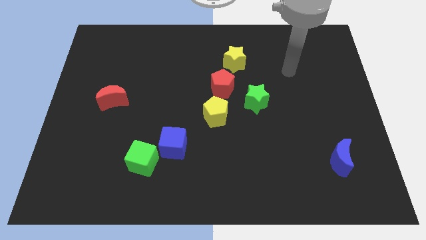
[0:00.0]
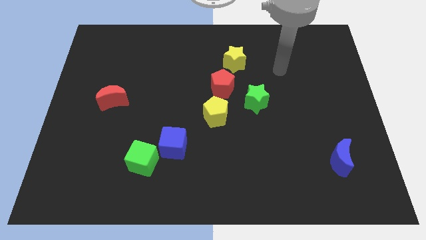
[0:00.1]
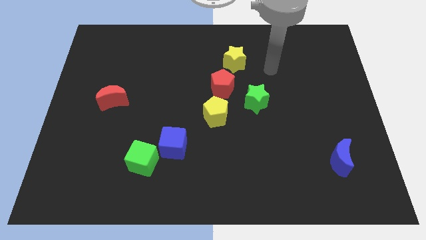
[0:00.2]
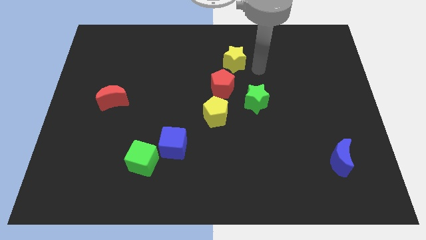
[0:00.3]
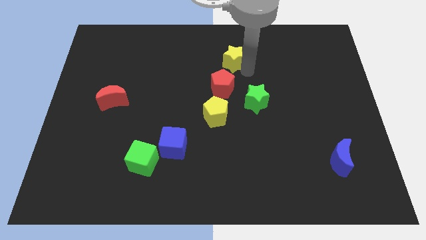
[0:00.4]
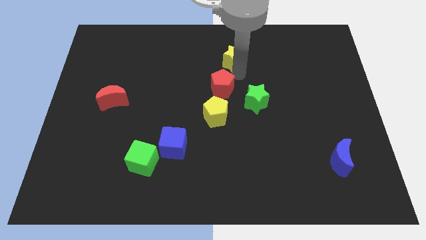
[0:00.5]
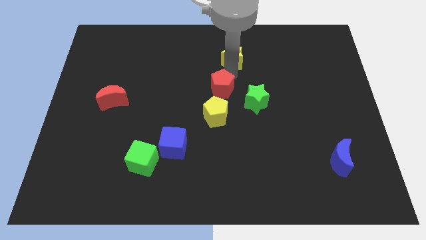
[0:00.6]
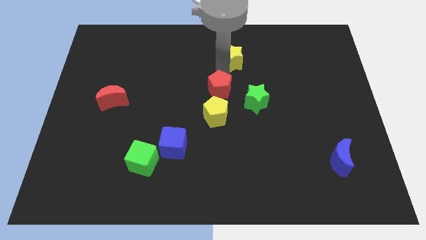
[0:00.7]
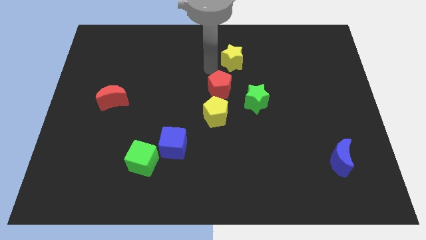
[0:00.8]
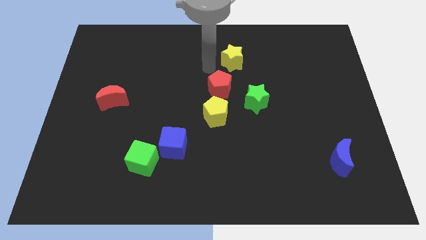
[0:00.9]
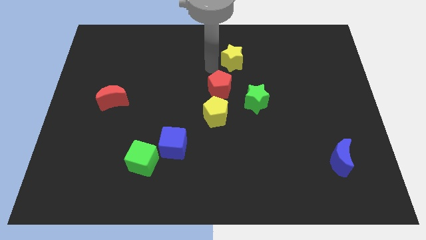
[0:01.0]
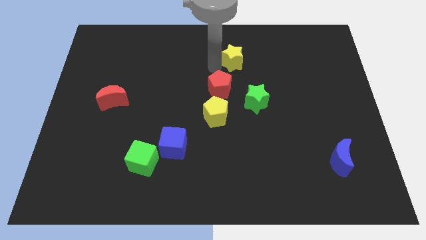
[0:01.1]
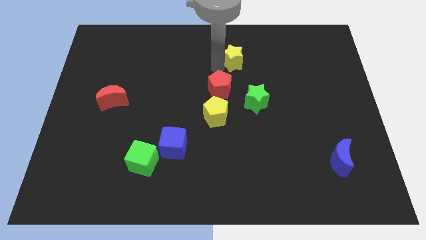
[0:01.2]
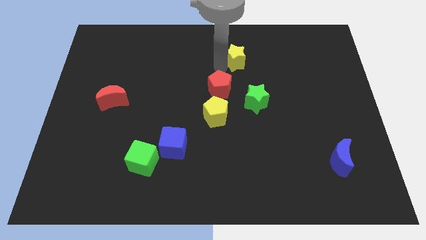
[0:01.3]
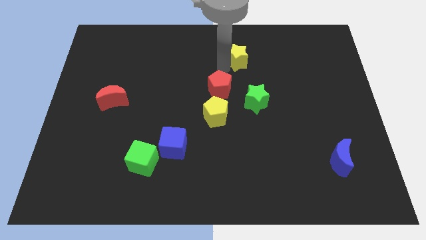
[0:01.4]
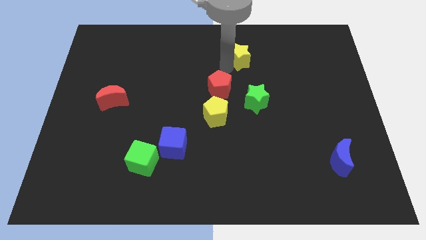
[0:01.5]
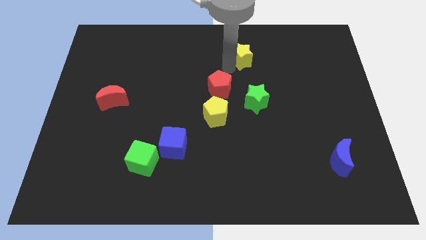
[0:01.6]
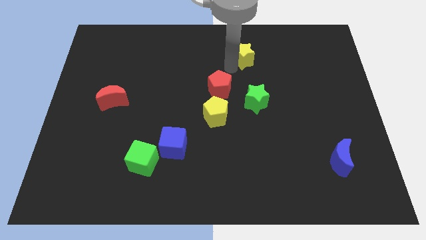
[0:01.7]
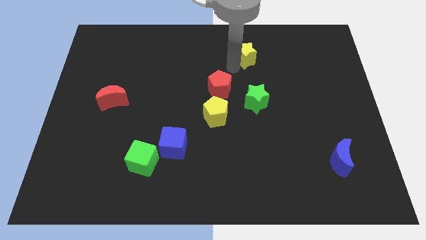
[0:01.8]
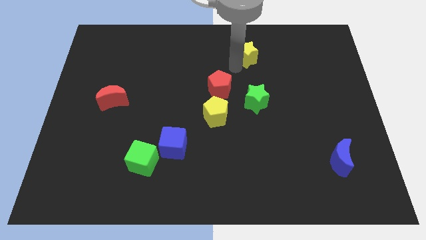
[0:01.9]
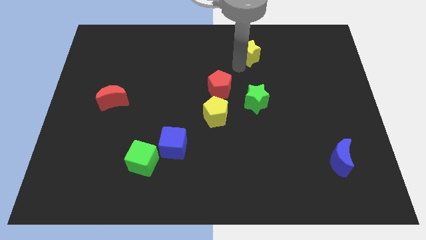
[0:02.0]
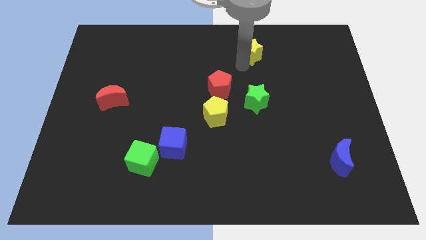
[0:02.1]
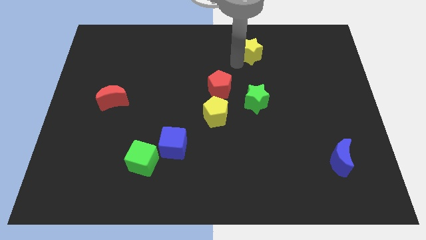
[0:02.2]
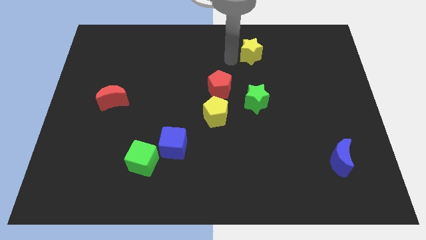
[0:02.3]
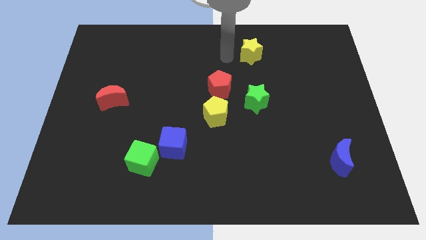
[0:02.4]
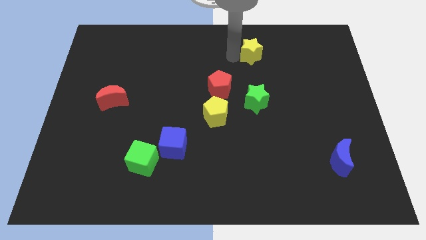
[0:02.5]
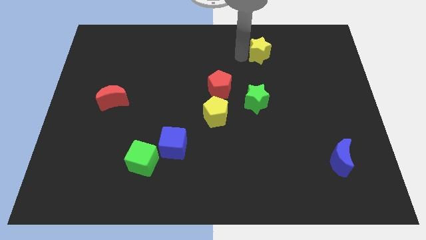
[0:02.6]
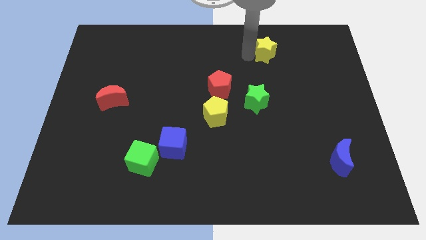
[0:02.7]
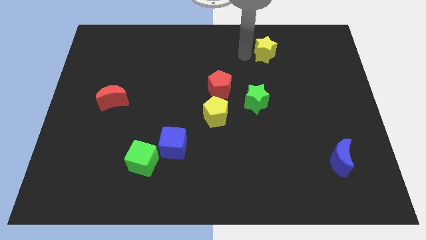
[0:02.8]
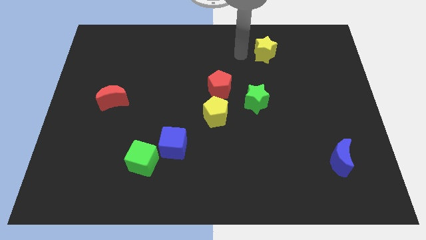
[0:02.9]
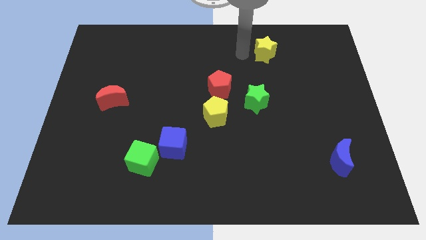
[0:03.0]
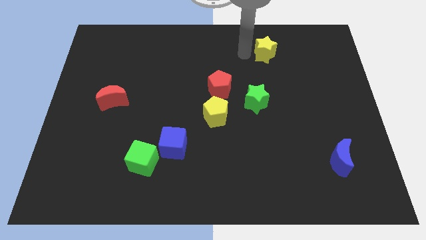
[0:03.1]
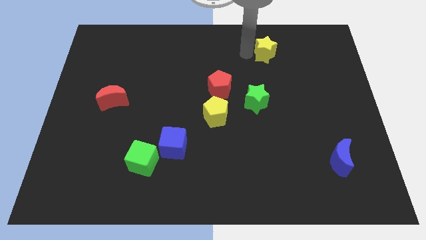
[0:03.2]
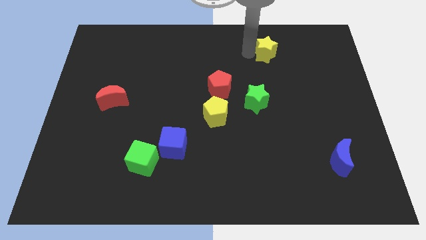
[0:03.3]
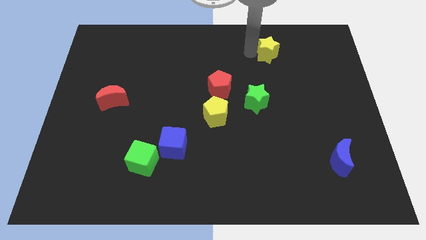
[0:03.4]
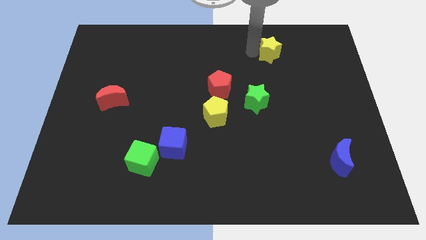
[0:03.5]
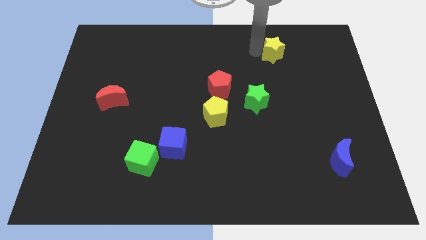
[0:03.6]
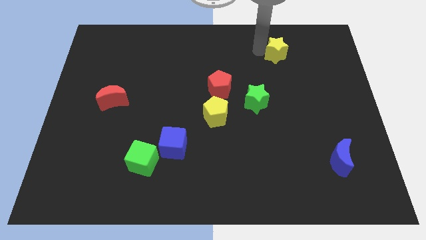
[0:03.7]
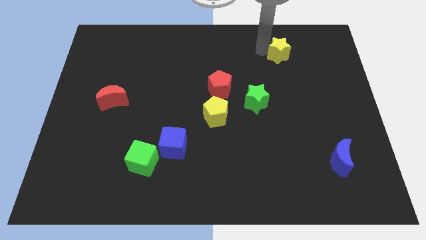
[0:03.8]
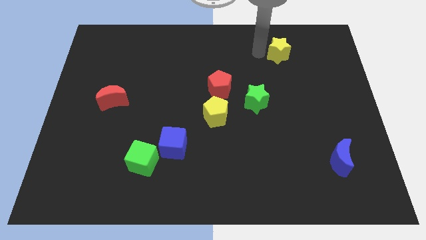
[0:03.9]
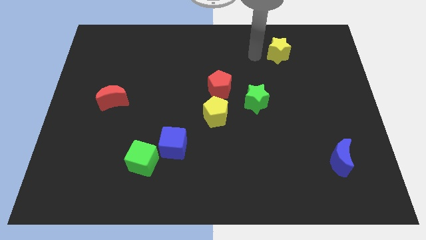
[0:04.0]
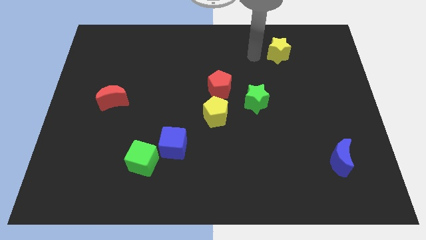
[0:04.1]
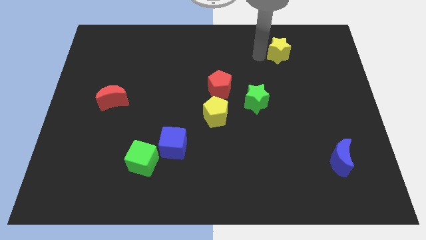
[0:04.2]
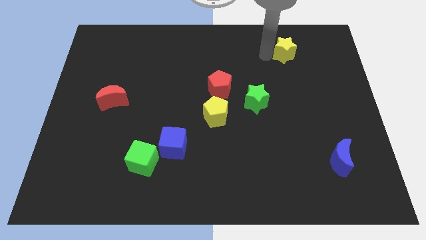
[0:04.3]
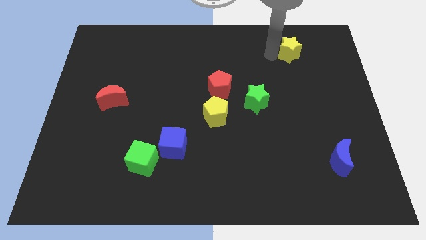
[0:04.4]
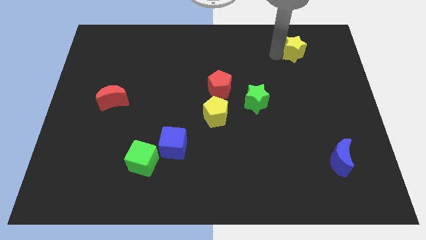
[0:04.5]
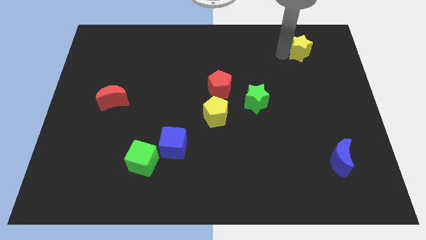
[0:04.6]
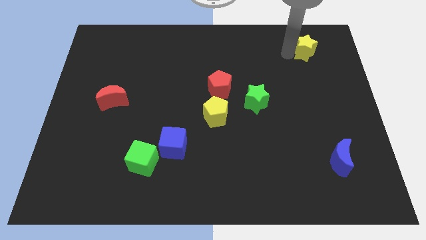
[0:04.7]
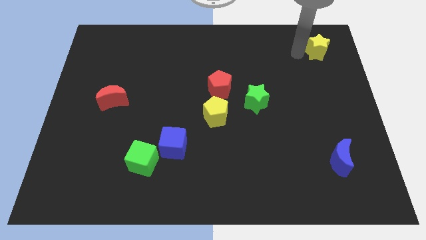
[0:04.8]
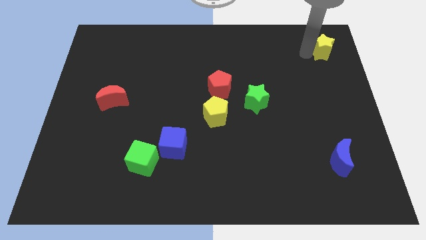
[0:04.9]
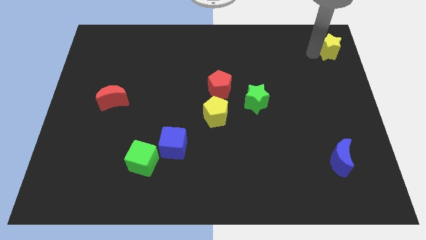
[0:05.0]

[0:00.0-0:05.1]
push the yellow star to the top right

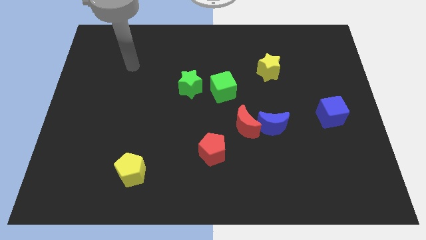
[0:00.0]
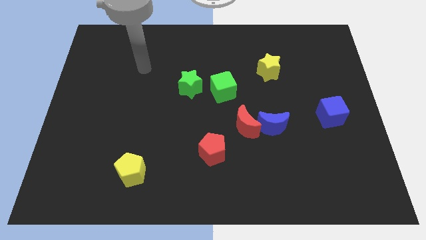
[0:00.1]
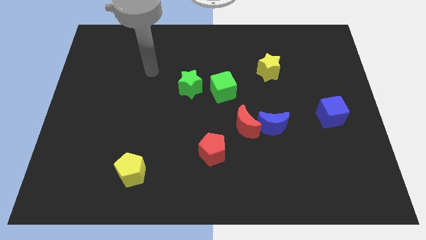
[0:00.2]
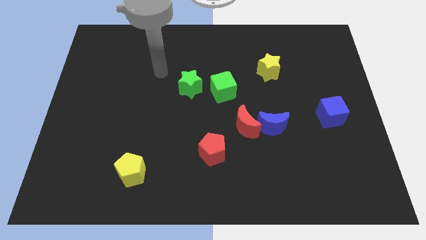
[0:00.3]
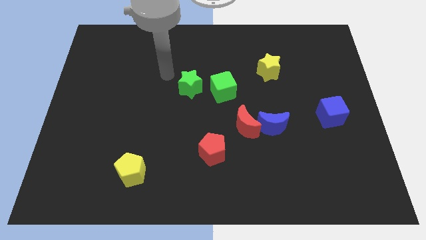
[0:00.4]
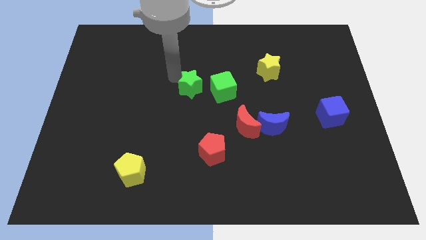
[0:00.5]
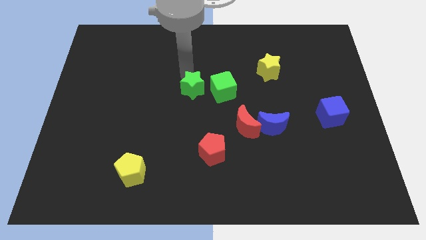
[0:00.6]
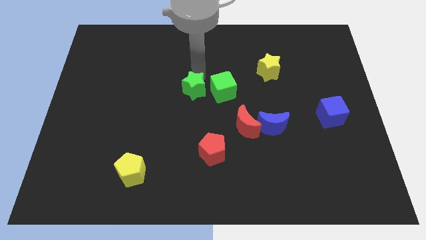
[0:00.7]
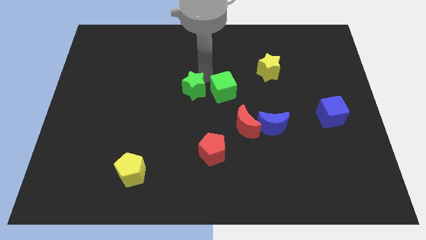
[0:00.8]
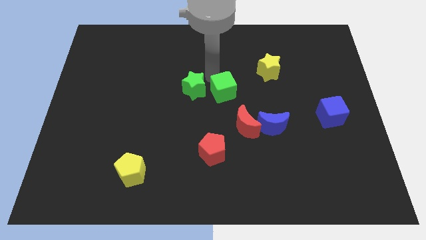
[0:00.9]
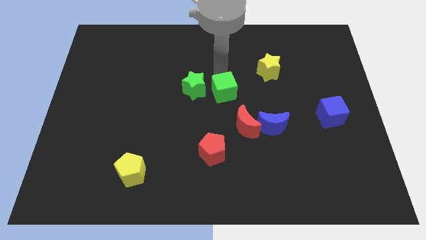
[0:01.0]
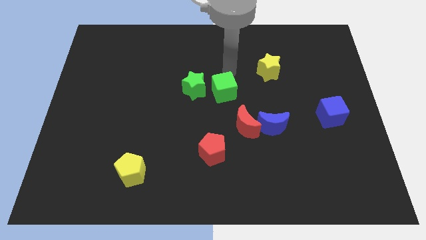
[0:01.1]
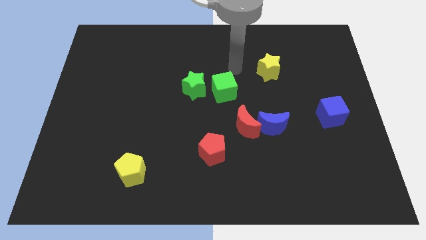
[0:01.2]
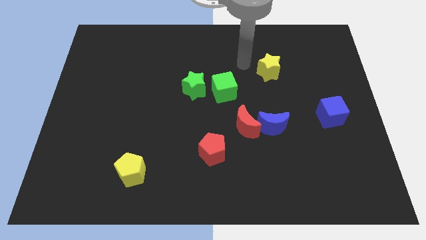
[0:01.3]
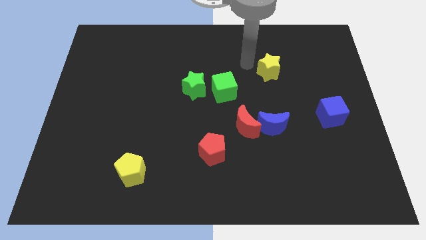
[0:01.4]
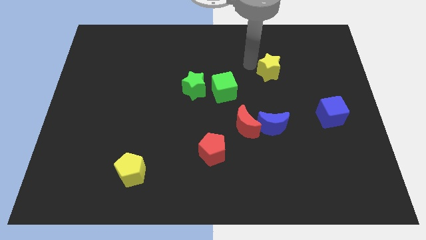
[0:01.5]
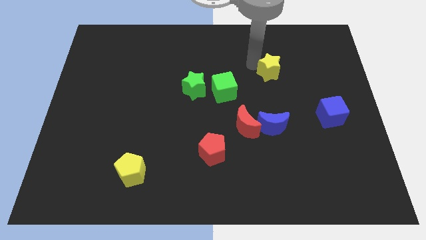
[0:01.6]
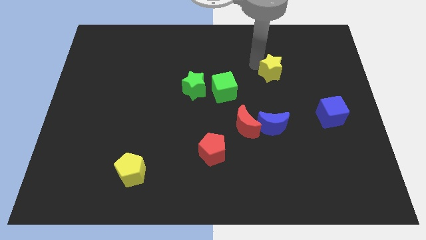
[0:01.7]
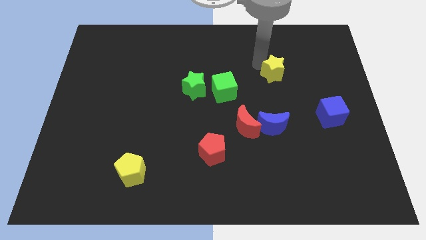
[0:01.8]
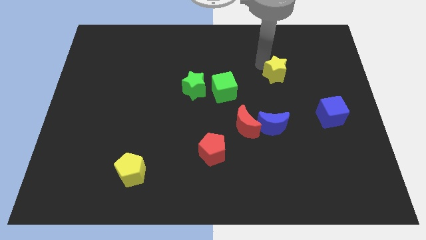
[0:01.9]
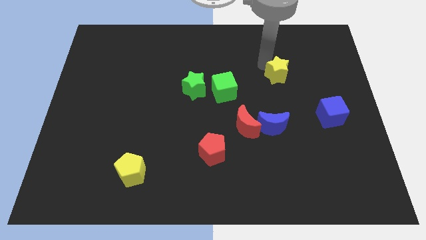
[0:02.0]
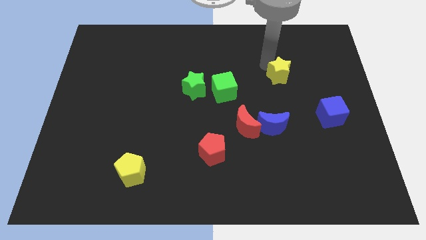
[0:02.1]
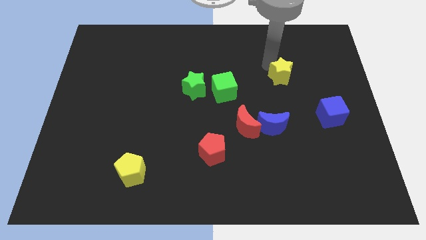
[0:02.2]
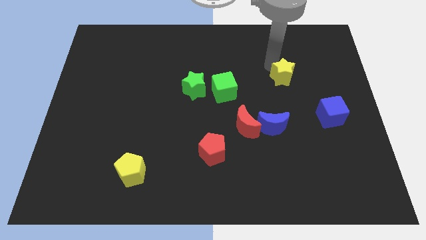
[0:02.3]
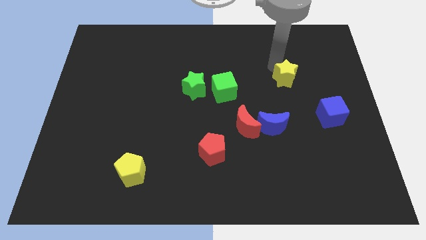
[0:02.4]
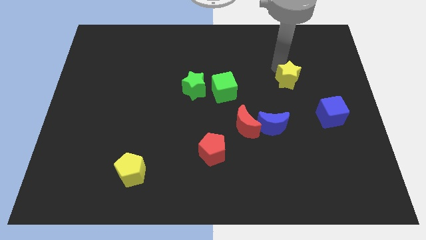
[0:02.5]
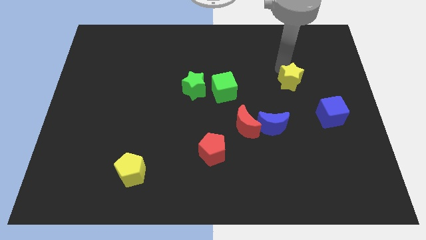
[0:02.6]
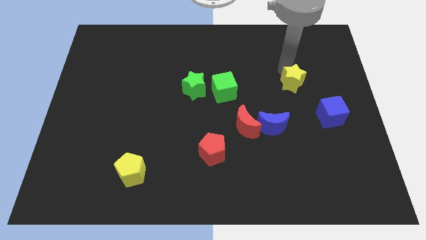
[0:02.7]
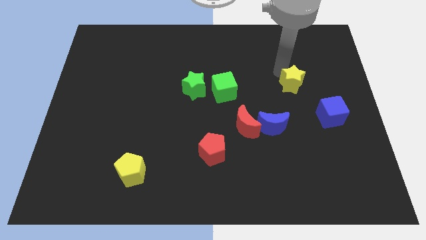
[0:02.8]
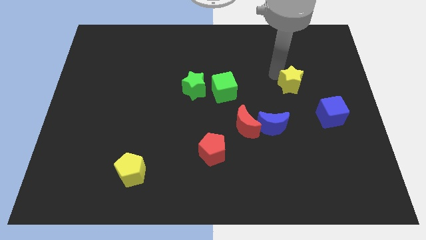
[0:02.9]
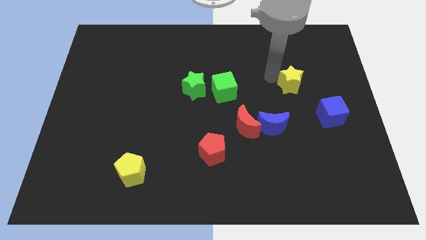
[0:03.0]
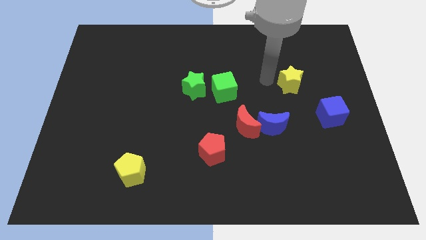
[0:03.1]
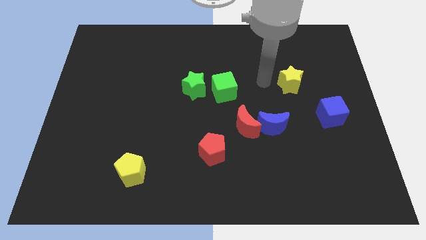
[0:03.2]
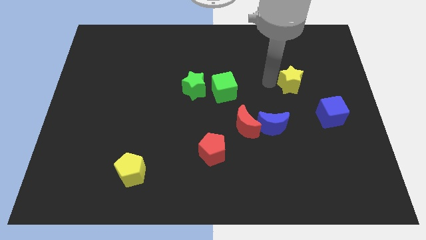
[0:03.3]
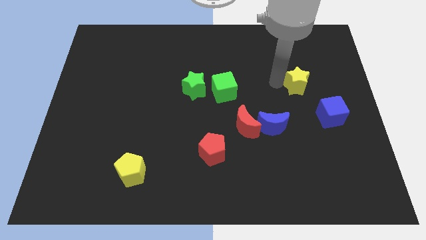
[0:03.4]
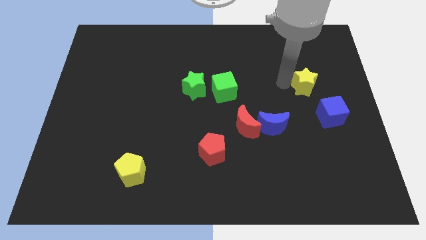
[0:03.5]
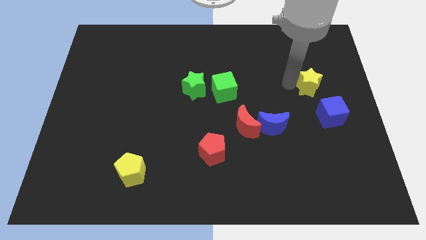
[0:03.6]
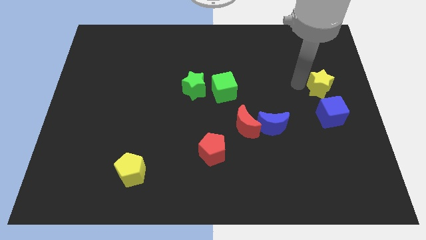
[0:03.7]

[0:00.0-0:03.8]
slide the yellow star to the right side
